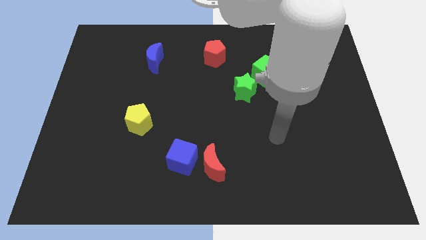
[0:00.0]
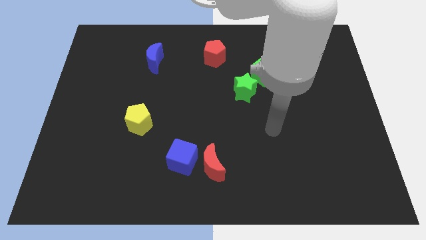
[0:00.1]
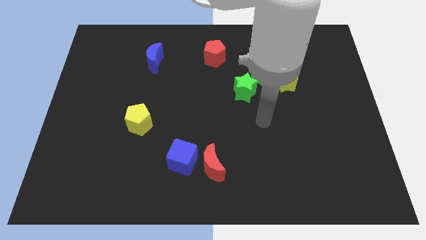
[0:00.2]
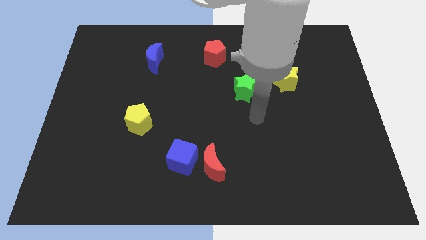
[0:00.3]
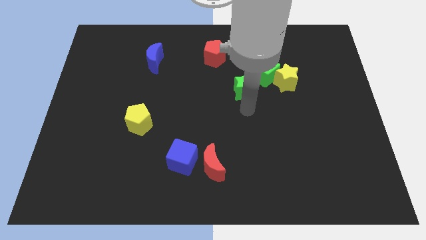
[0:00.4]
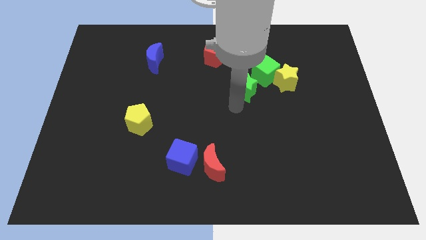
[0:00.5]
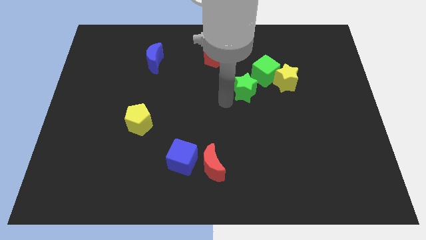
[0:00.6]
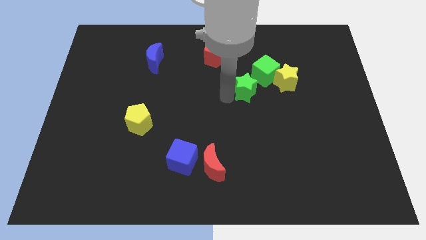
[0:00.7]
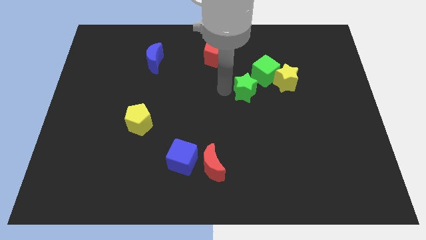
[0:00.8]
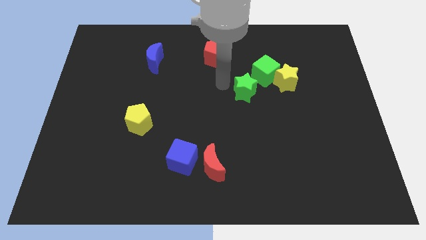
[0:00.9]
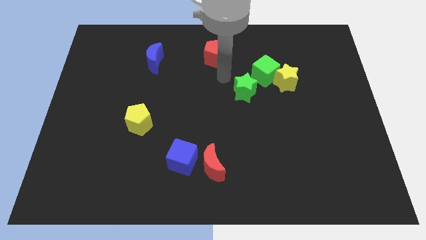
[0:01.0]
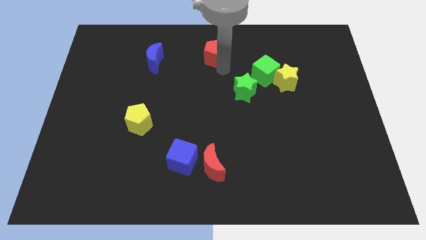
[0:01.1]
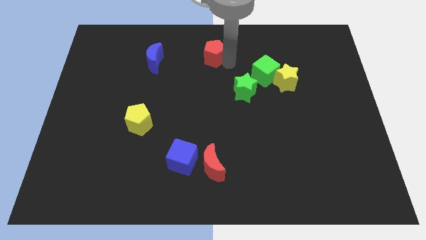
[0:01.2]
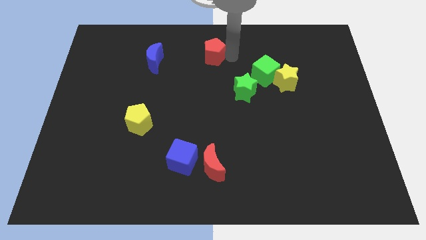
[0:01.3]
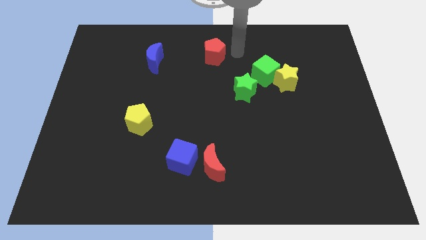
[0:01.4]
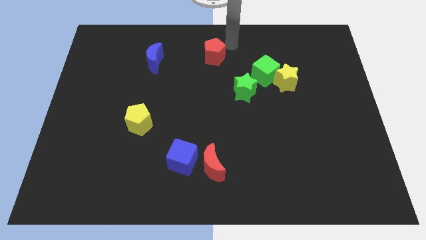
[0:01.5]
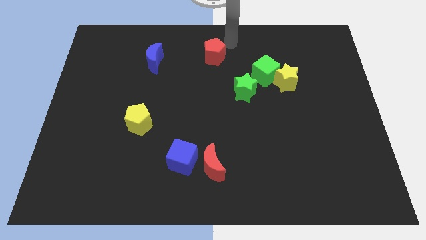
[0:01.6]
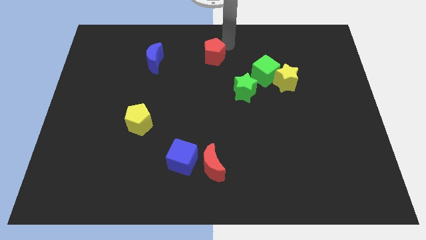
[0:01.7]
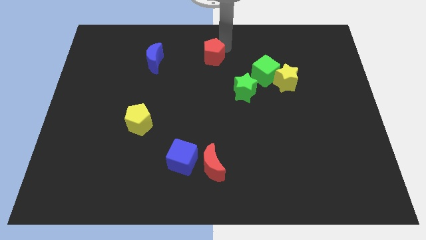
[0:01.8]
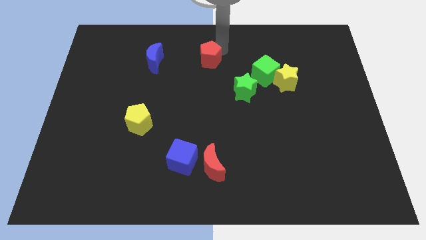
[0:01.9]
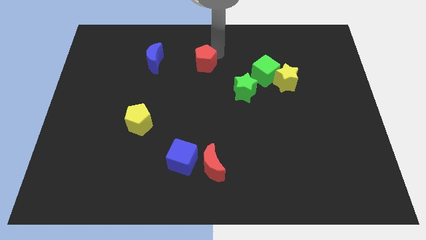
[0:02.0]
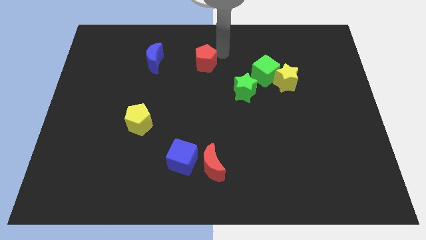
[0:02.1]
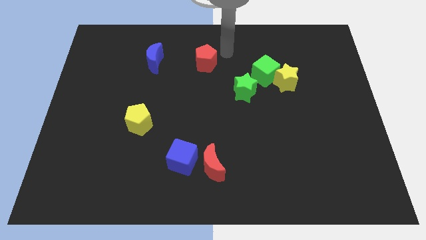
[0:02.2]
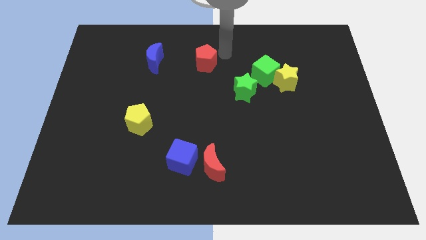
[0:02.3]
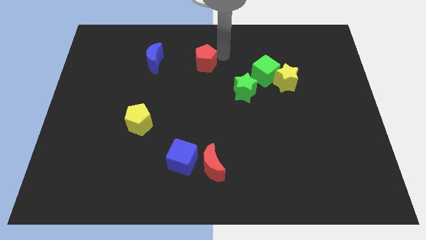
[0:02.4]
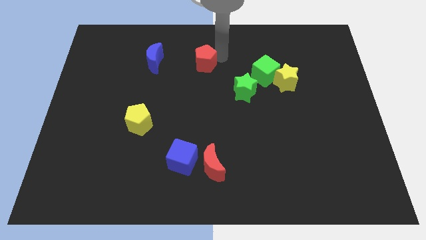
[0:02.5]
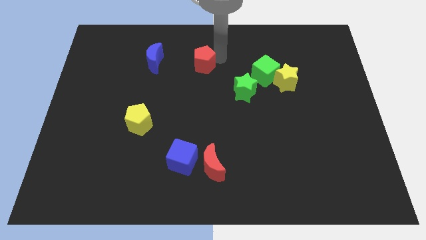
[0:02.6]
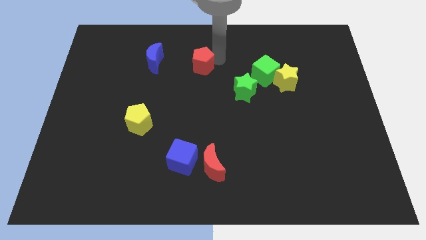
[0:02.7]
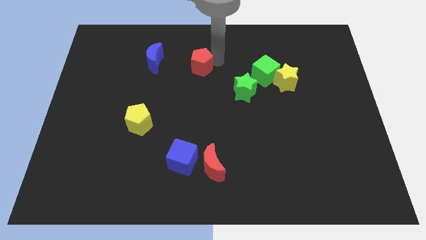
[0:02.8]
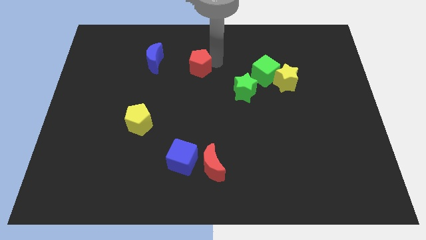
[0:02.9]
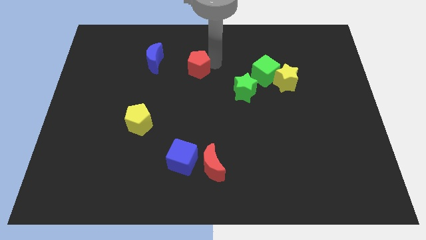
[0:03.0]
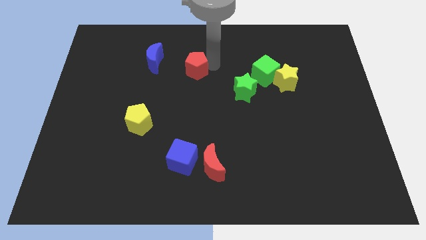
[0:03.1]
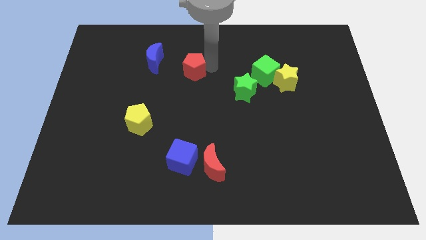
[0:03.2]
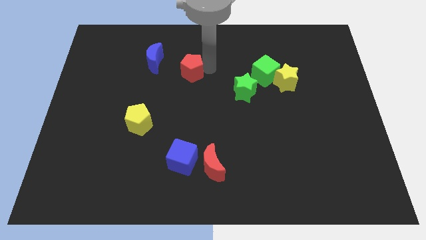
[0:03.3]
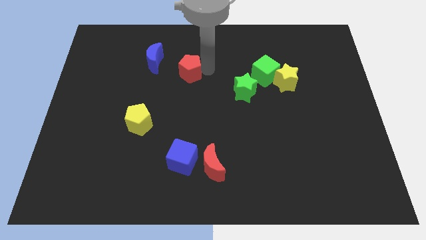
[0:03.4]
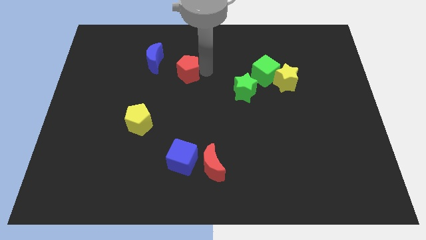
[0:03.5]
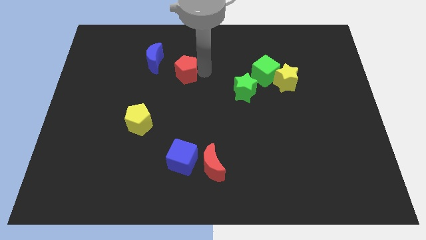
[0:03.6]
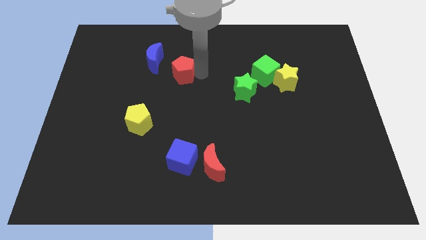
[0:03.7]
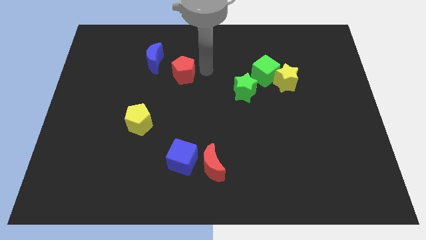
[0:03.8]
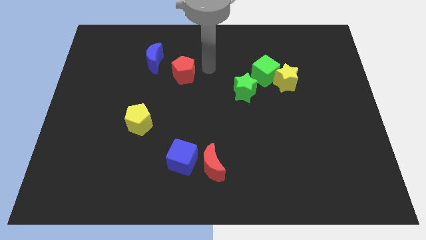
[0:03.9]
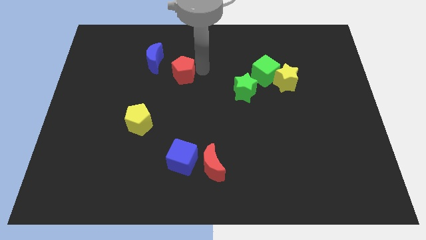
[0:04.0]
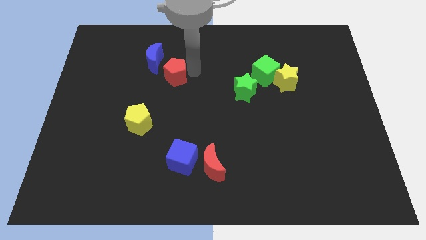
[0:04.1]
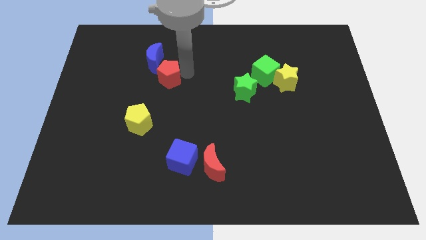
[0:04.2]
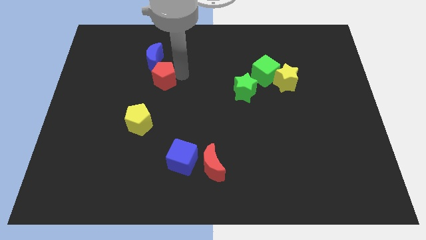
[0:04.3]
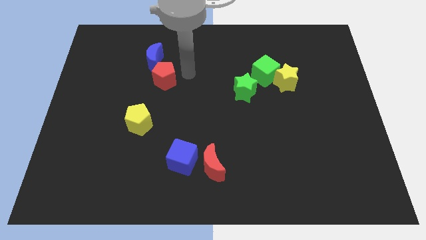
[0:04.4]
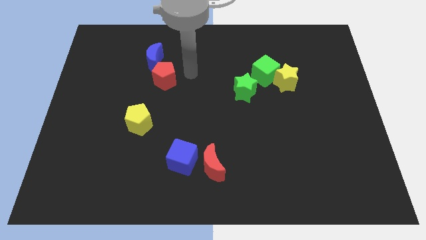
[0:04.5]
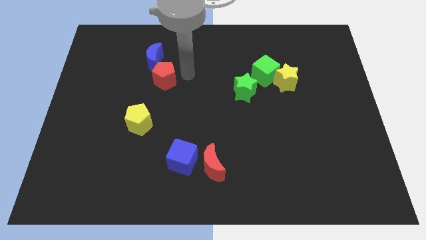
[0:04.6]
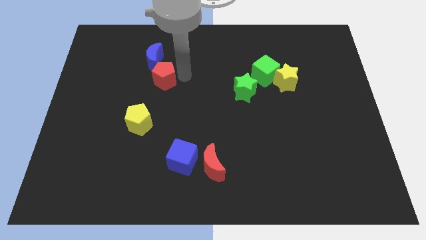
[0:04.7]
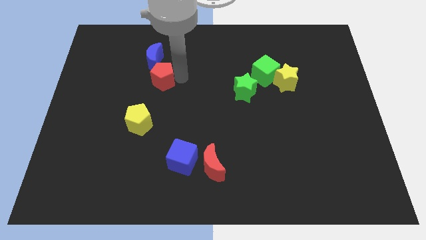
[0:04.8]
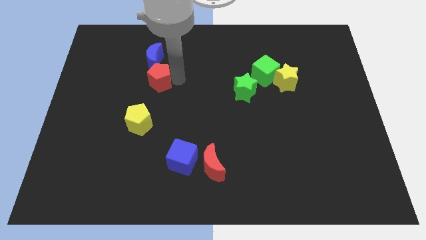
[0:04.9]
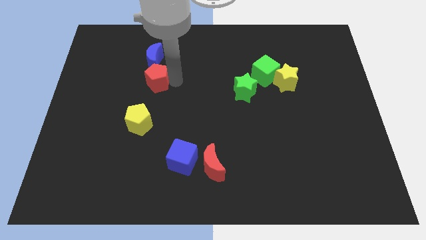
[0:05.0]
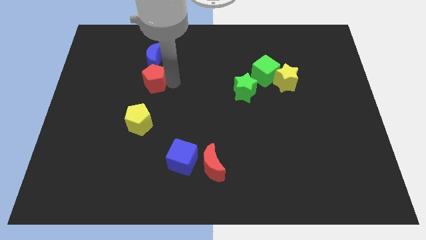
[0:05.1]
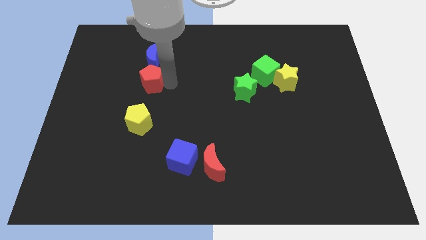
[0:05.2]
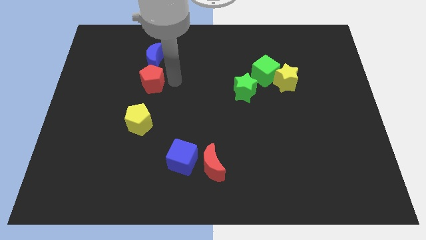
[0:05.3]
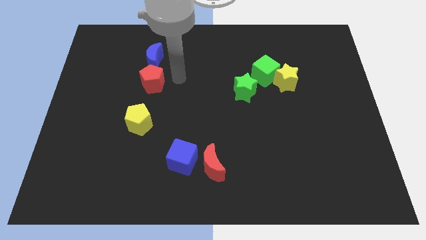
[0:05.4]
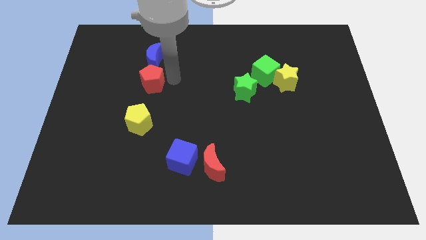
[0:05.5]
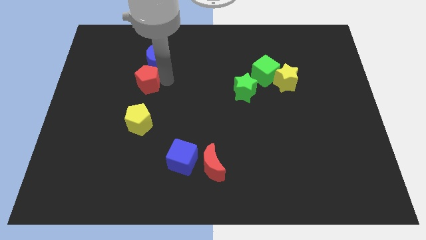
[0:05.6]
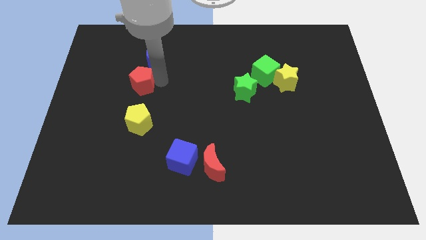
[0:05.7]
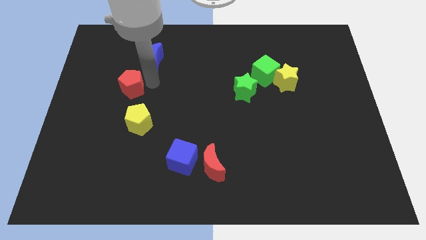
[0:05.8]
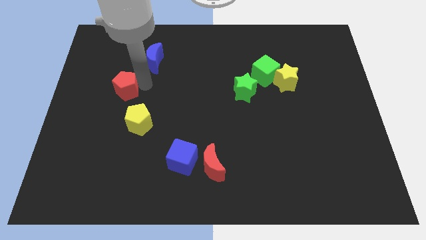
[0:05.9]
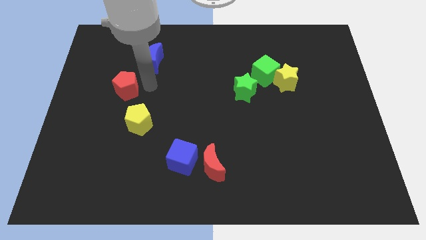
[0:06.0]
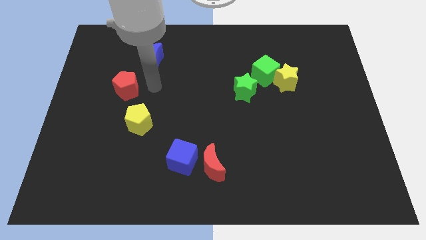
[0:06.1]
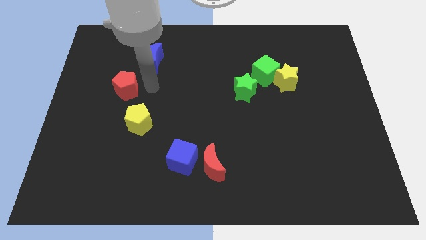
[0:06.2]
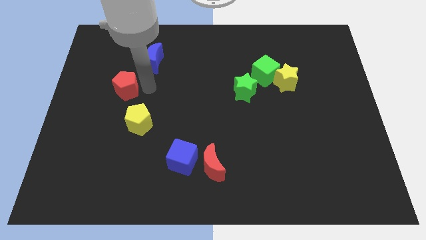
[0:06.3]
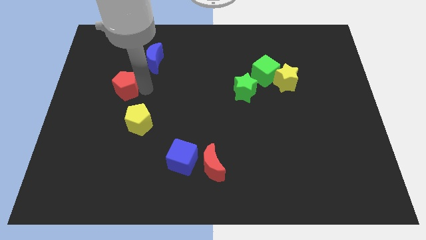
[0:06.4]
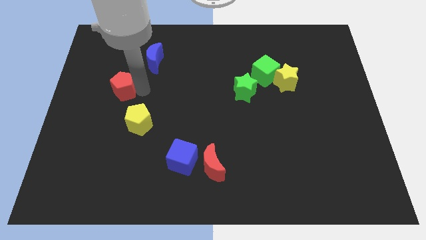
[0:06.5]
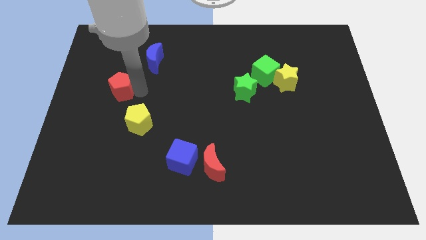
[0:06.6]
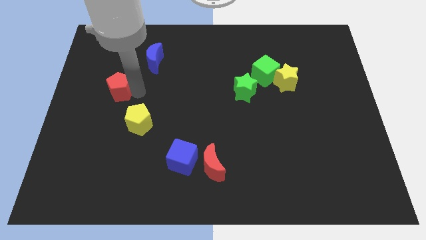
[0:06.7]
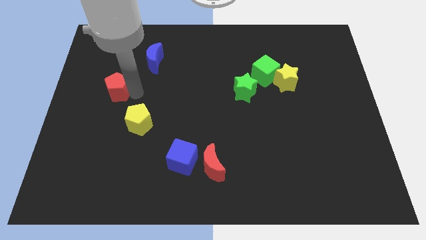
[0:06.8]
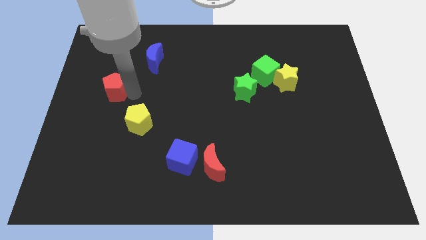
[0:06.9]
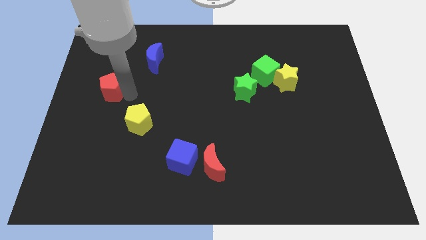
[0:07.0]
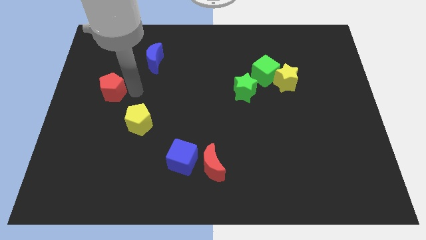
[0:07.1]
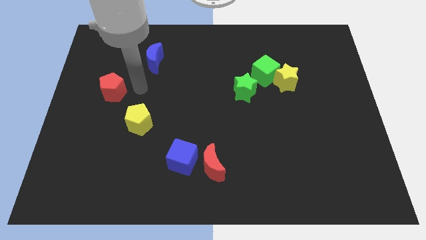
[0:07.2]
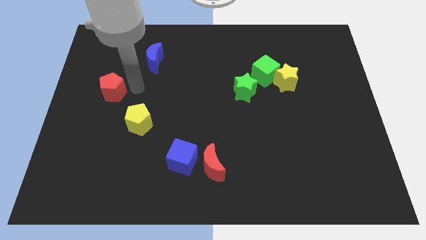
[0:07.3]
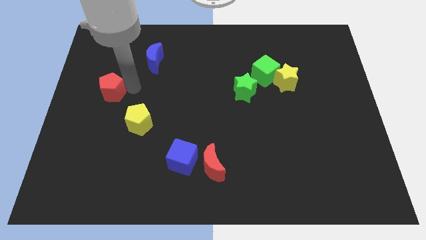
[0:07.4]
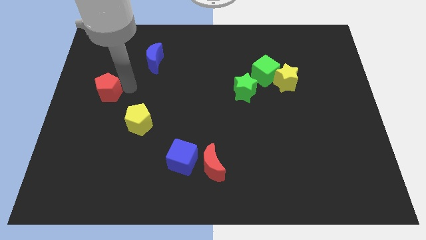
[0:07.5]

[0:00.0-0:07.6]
slide the red pentagon to the left side of the board
